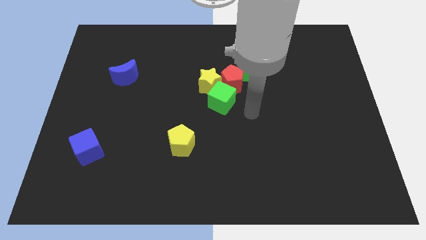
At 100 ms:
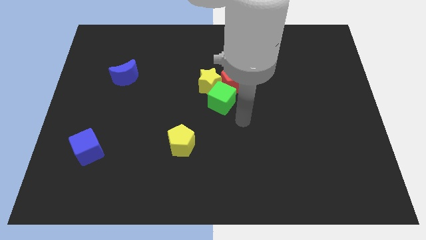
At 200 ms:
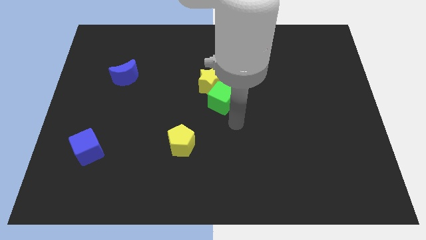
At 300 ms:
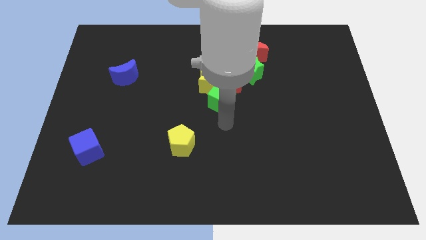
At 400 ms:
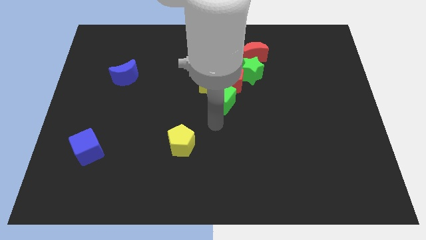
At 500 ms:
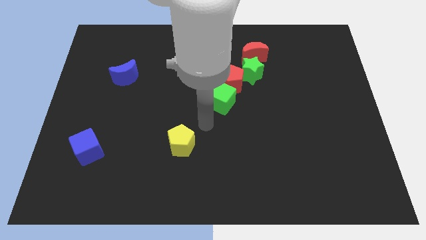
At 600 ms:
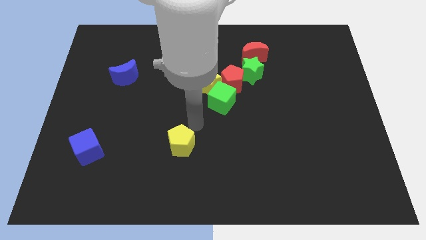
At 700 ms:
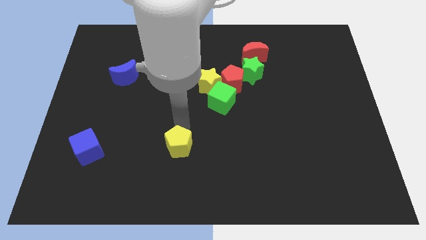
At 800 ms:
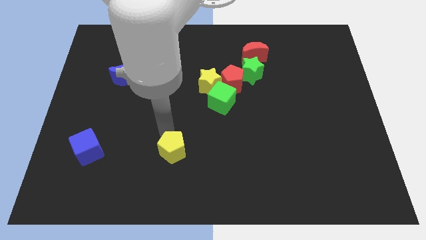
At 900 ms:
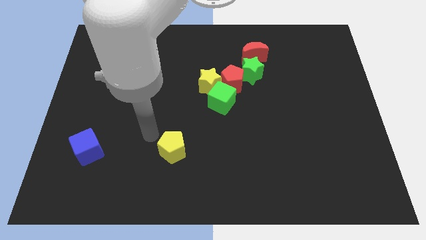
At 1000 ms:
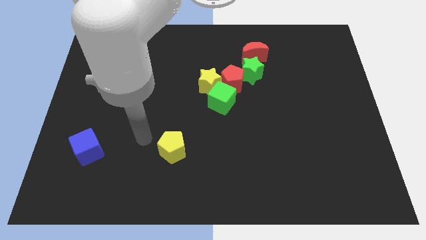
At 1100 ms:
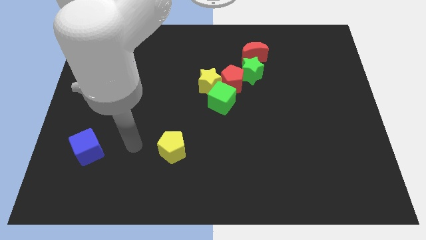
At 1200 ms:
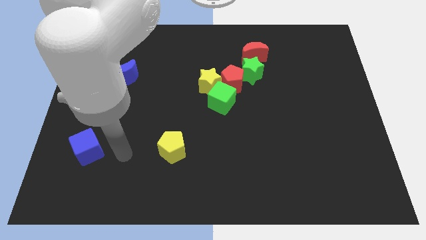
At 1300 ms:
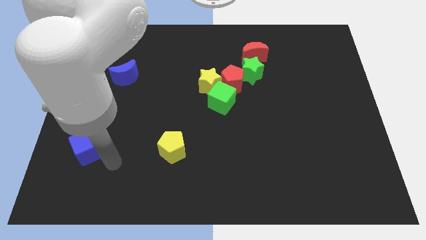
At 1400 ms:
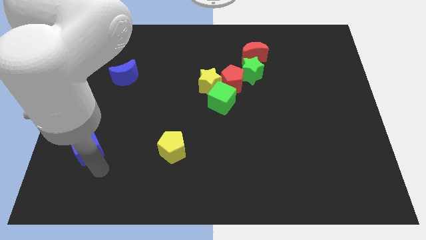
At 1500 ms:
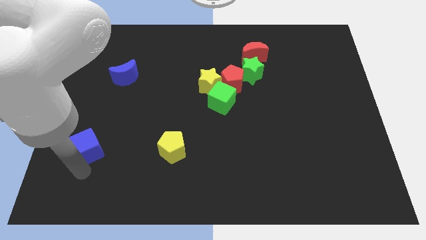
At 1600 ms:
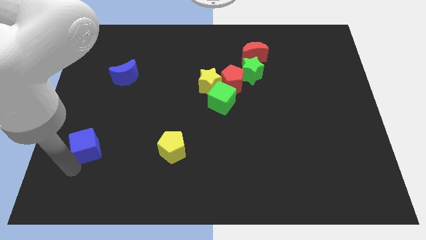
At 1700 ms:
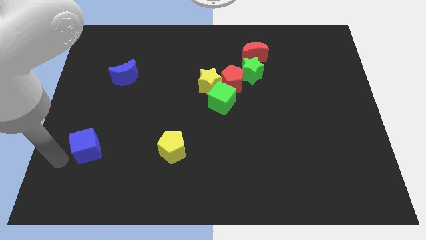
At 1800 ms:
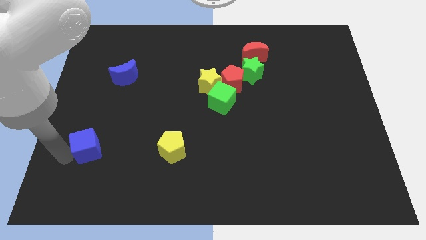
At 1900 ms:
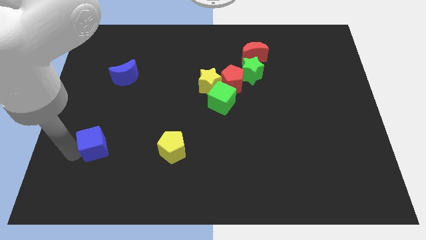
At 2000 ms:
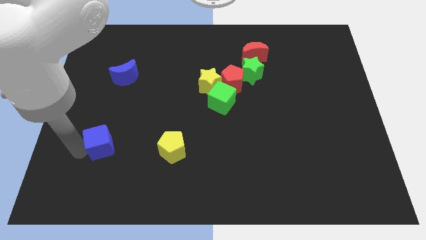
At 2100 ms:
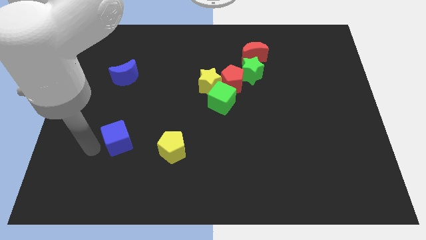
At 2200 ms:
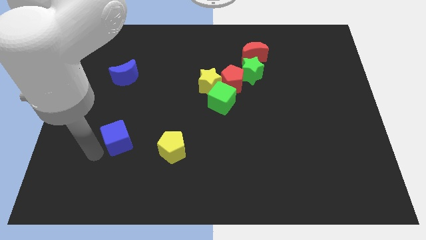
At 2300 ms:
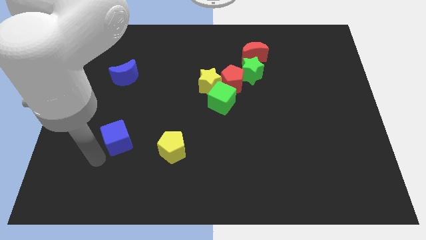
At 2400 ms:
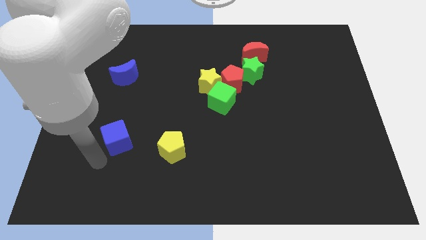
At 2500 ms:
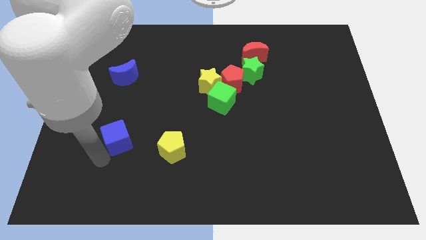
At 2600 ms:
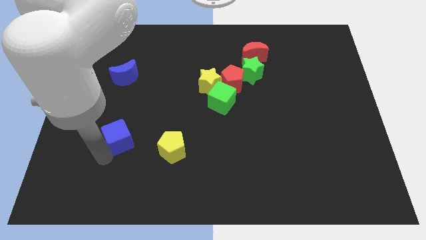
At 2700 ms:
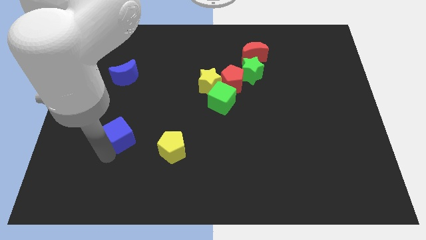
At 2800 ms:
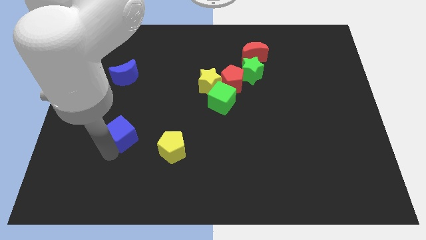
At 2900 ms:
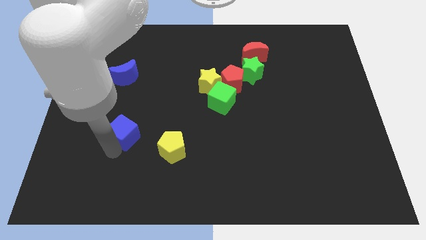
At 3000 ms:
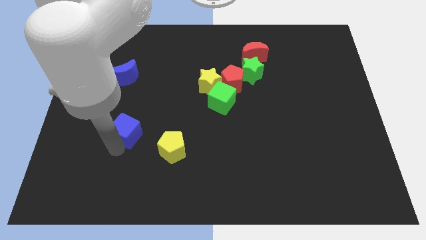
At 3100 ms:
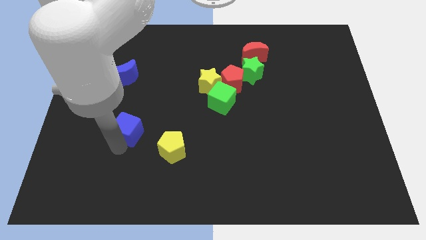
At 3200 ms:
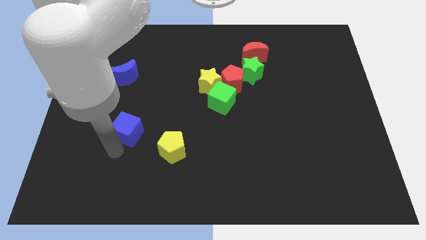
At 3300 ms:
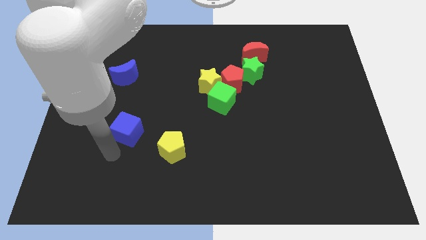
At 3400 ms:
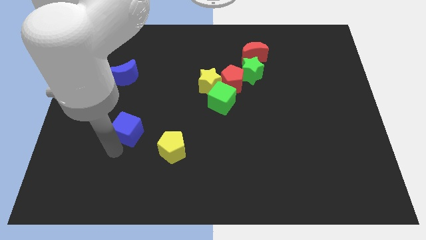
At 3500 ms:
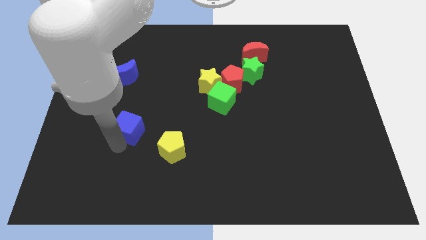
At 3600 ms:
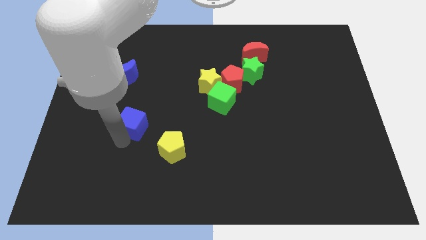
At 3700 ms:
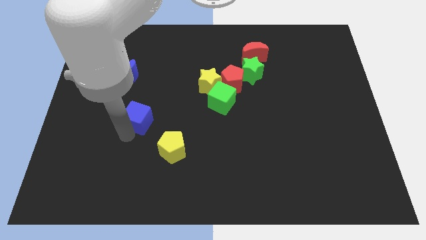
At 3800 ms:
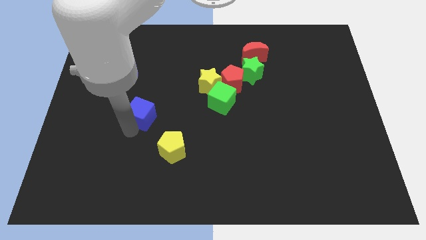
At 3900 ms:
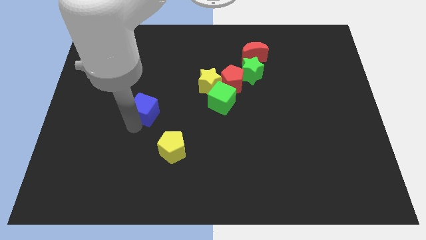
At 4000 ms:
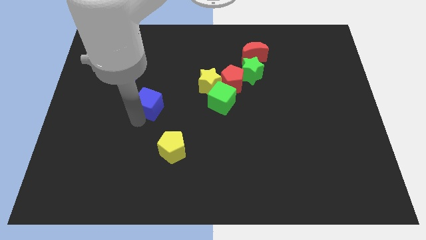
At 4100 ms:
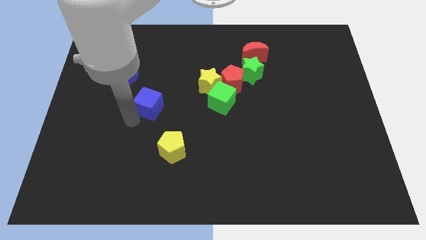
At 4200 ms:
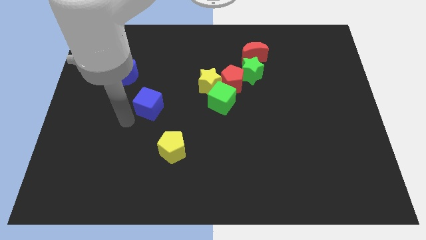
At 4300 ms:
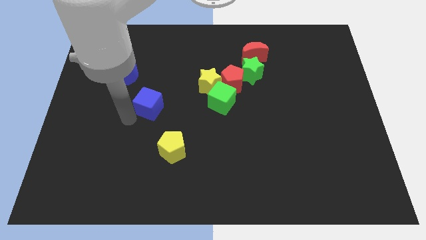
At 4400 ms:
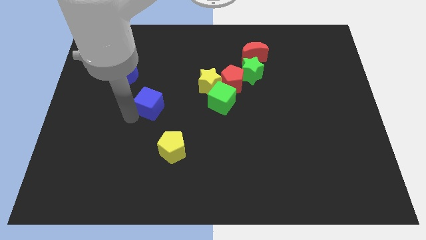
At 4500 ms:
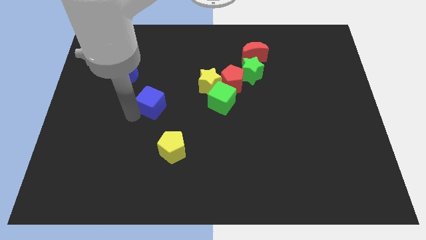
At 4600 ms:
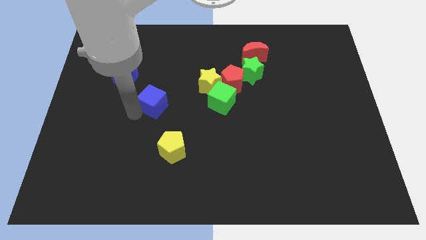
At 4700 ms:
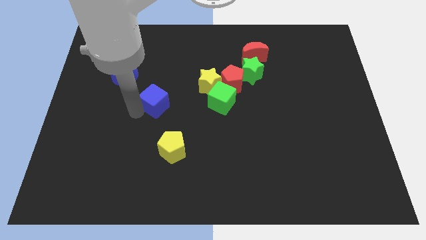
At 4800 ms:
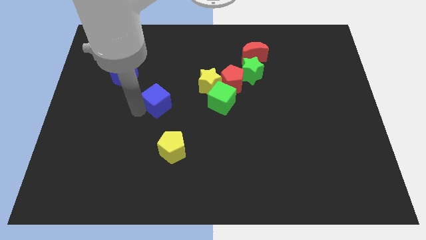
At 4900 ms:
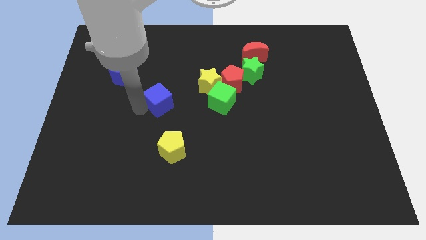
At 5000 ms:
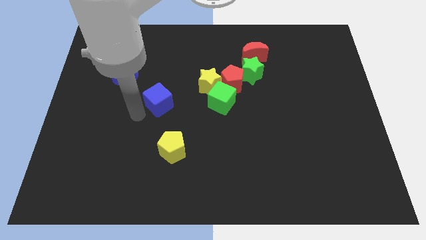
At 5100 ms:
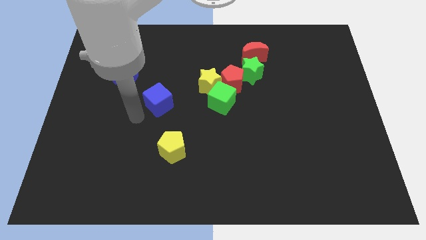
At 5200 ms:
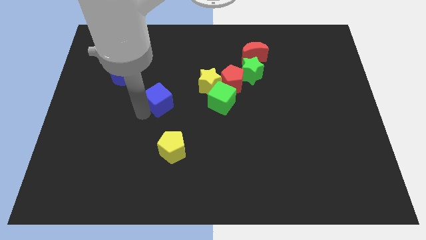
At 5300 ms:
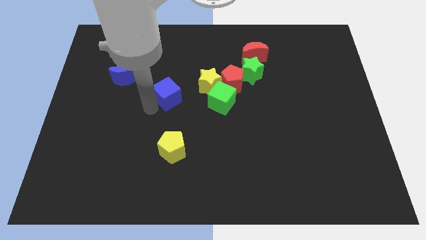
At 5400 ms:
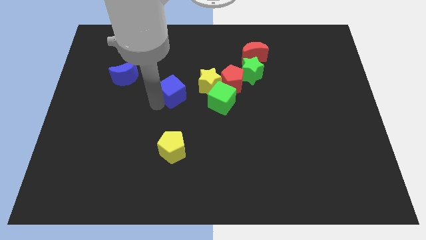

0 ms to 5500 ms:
move the blue cube just left of the red pentagon

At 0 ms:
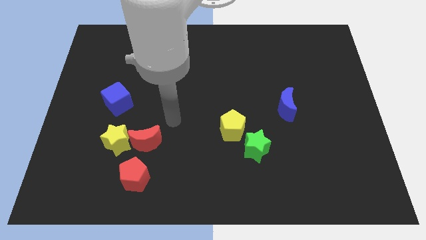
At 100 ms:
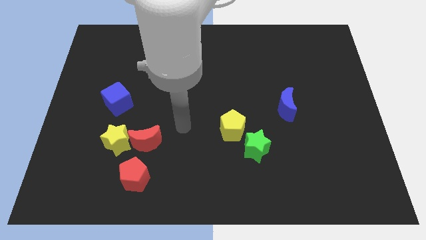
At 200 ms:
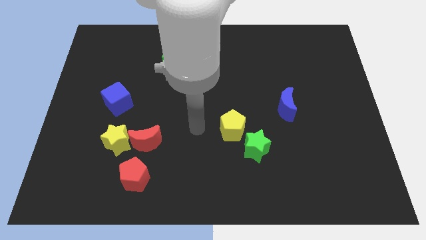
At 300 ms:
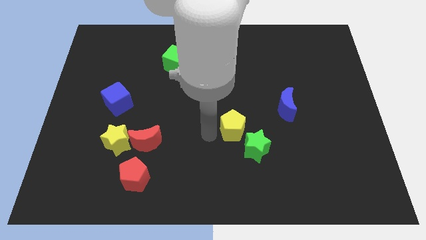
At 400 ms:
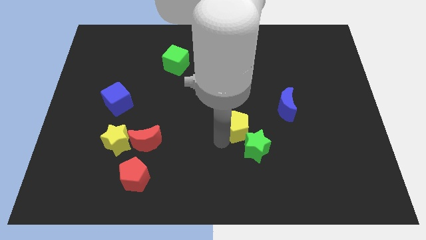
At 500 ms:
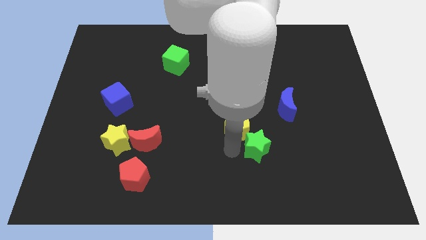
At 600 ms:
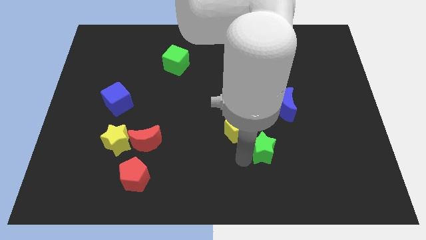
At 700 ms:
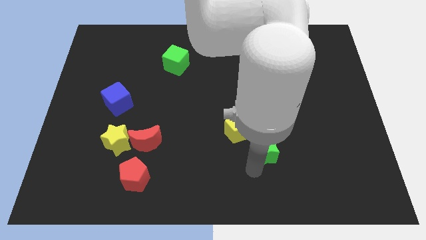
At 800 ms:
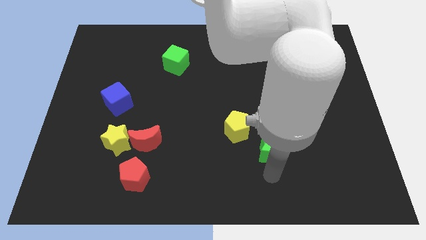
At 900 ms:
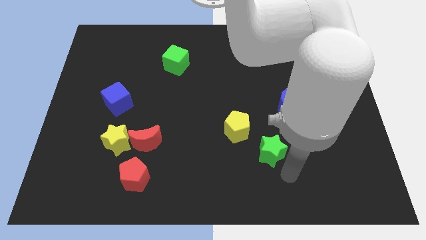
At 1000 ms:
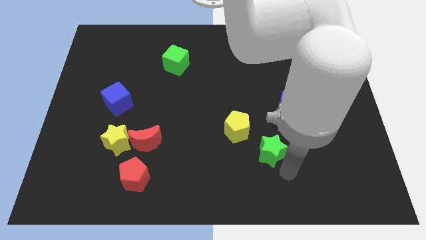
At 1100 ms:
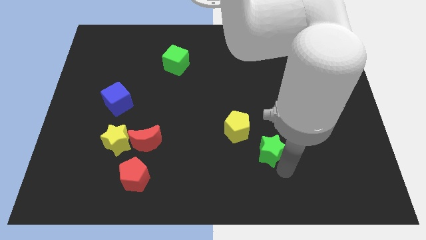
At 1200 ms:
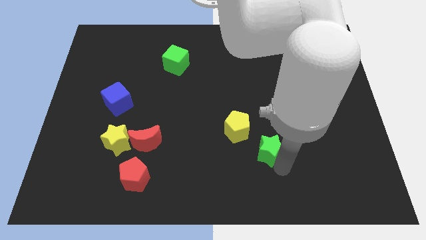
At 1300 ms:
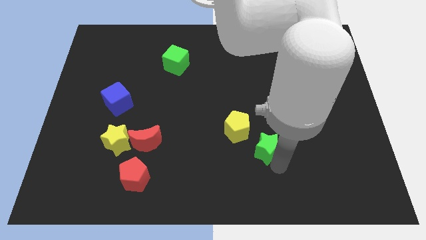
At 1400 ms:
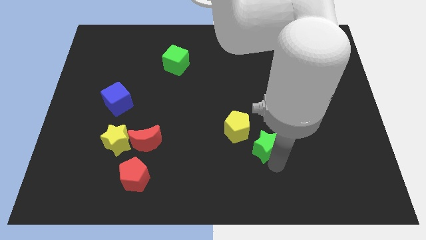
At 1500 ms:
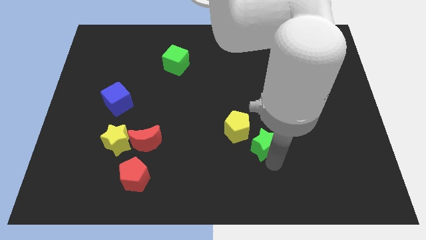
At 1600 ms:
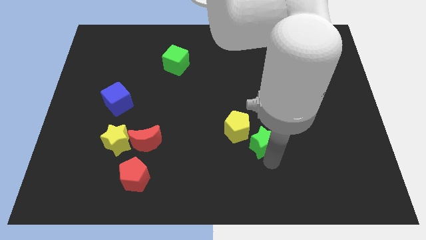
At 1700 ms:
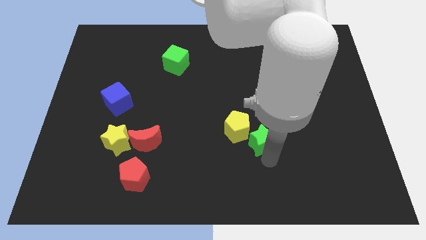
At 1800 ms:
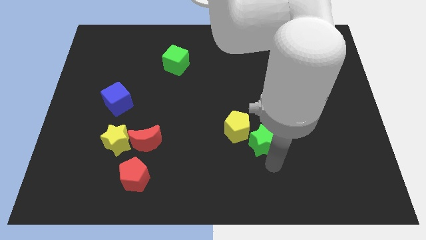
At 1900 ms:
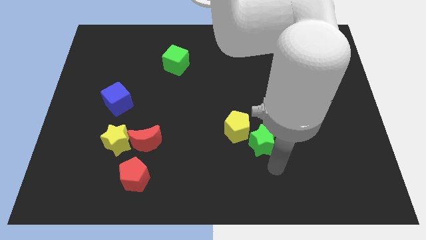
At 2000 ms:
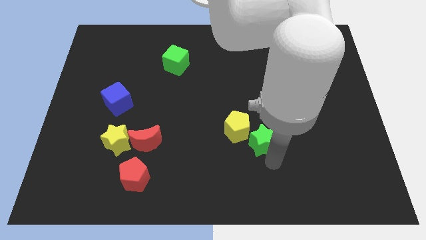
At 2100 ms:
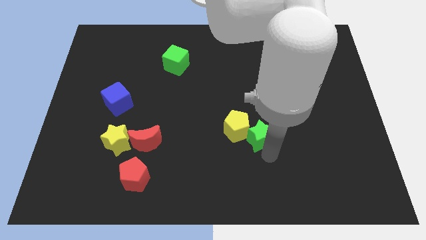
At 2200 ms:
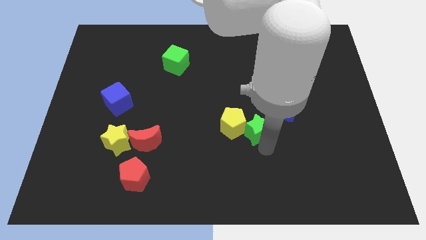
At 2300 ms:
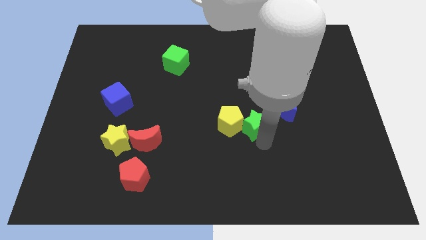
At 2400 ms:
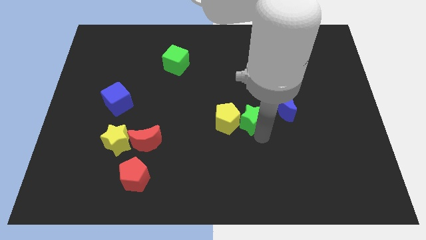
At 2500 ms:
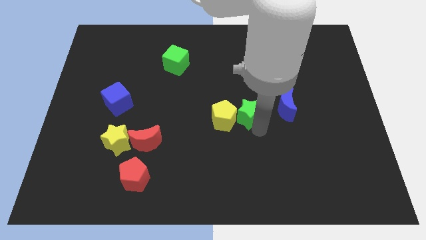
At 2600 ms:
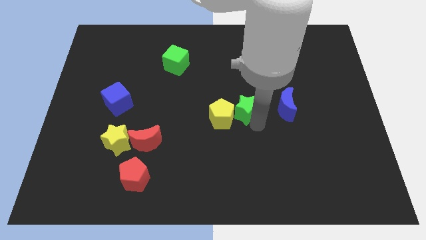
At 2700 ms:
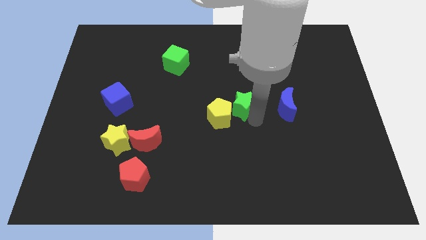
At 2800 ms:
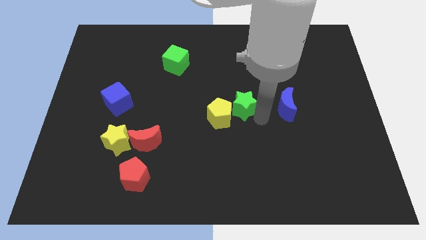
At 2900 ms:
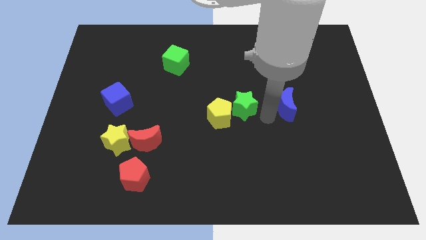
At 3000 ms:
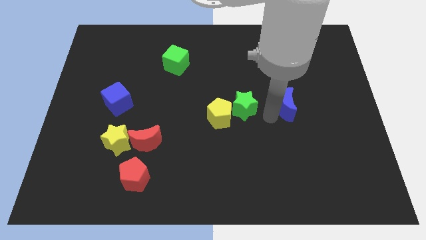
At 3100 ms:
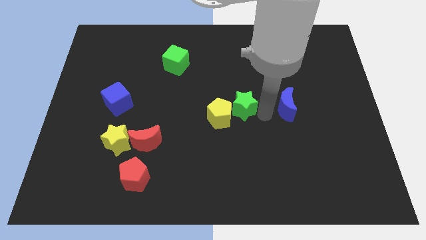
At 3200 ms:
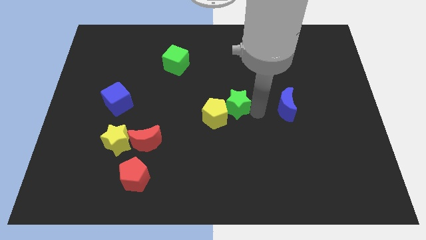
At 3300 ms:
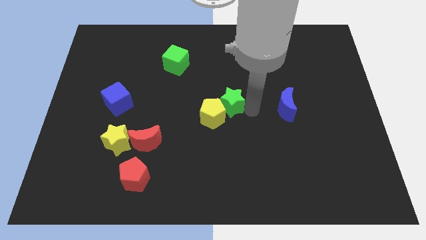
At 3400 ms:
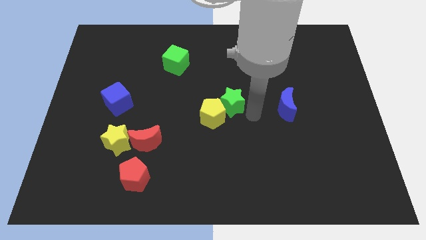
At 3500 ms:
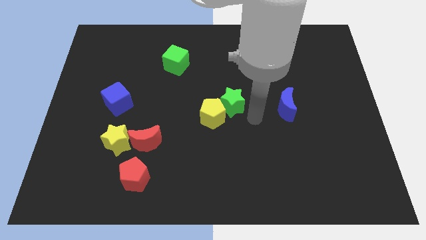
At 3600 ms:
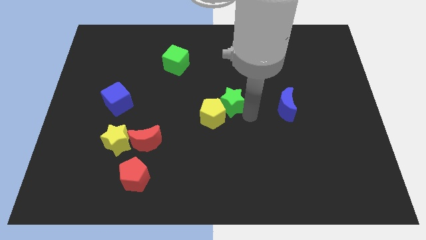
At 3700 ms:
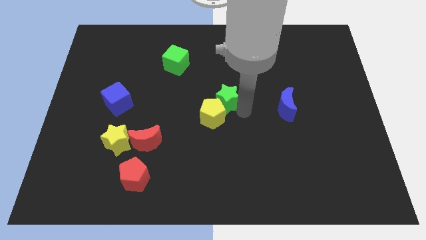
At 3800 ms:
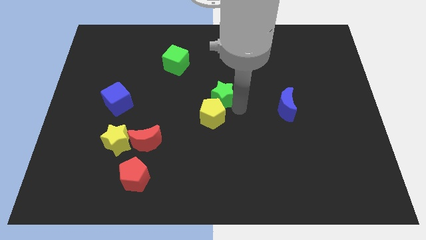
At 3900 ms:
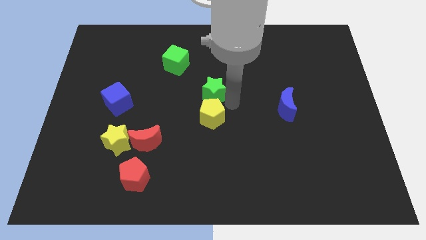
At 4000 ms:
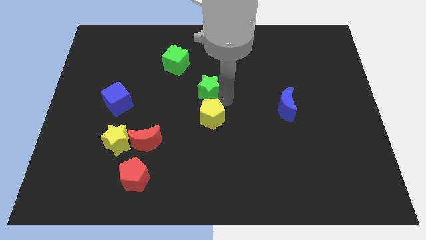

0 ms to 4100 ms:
move the green star to the bottom right of the green cube
